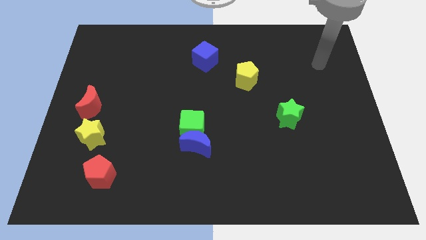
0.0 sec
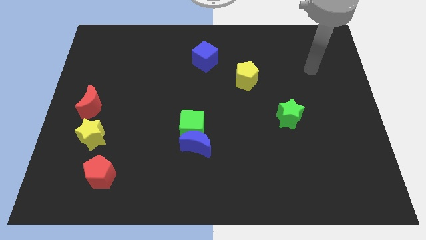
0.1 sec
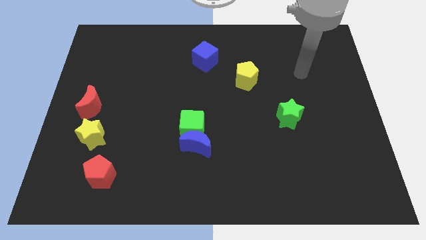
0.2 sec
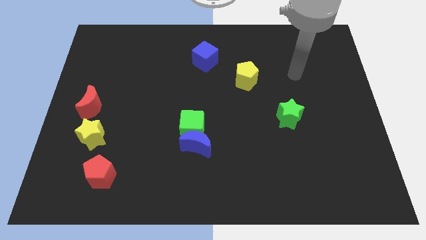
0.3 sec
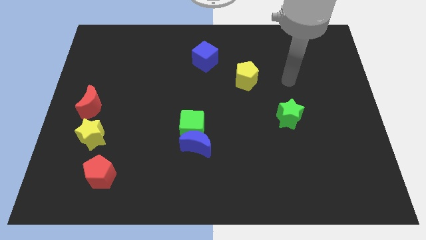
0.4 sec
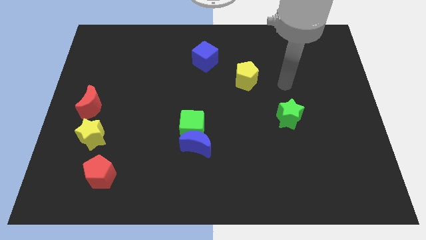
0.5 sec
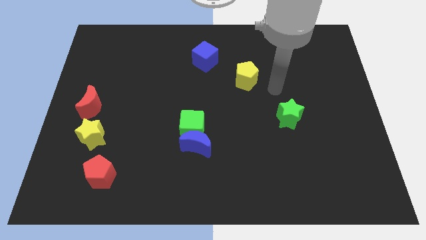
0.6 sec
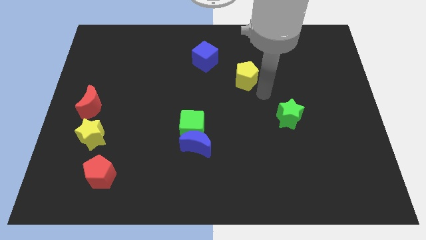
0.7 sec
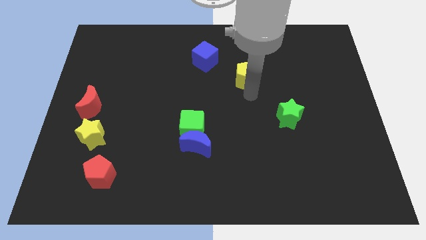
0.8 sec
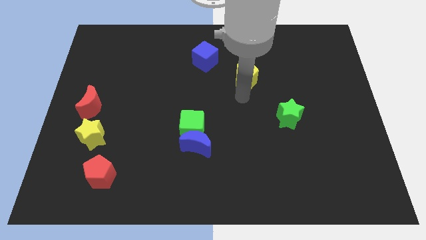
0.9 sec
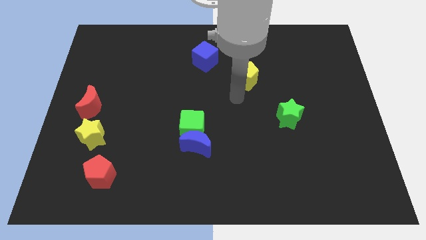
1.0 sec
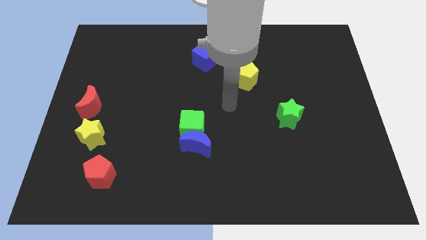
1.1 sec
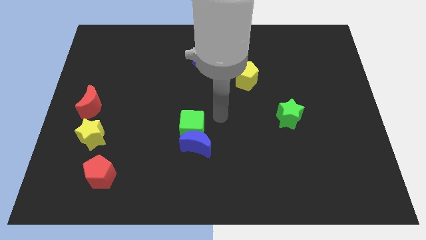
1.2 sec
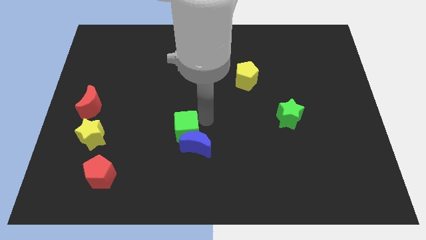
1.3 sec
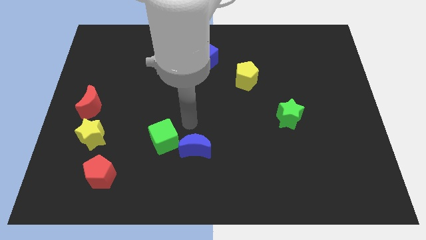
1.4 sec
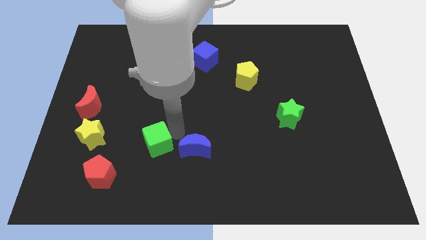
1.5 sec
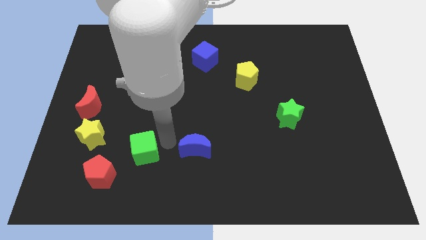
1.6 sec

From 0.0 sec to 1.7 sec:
move the blue moon away from the green cube

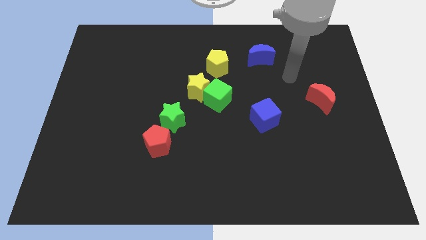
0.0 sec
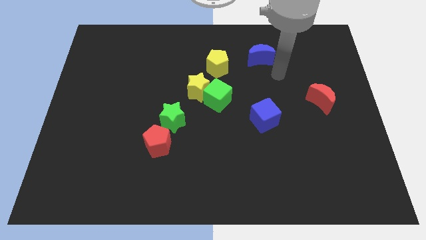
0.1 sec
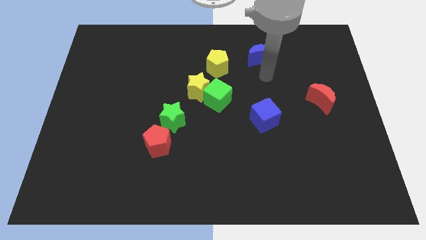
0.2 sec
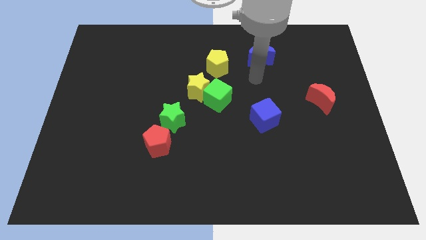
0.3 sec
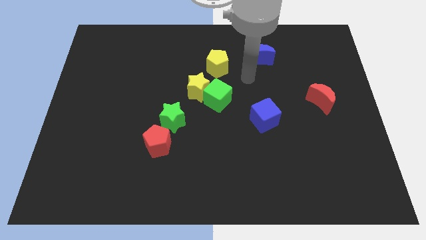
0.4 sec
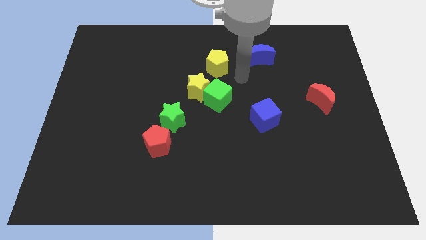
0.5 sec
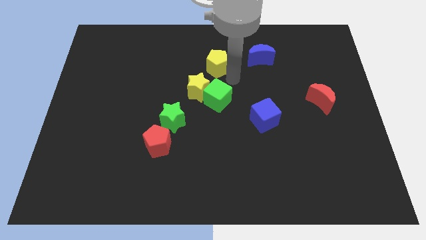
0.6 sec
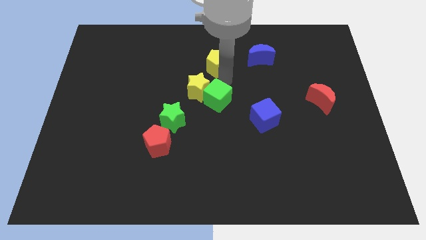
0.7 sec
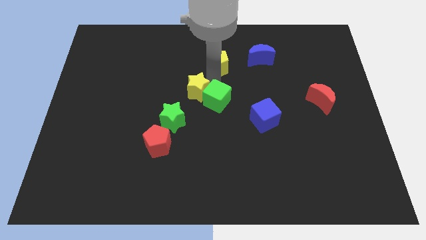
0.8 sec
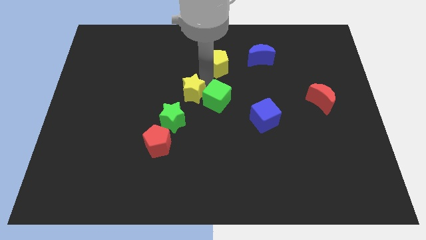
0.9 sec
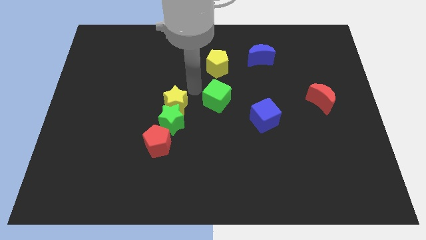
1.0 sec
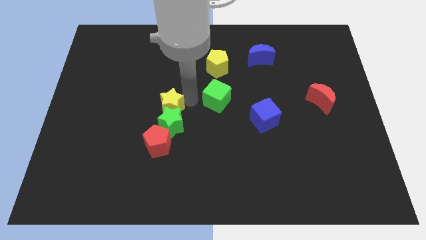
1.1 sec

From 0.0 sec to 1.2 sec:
pull the green cube apart from the yellow star

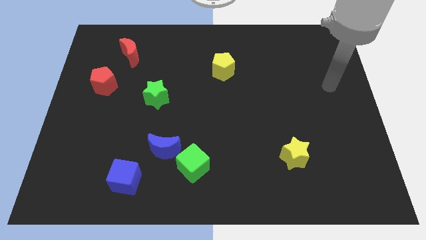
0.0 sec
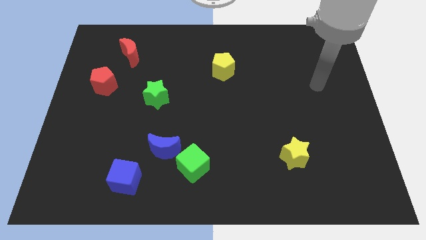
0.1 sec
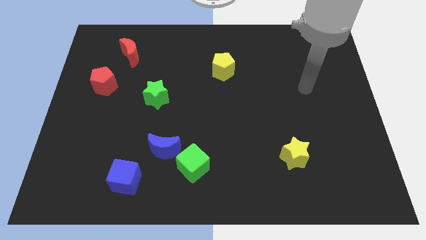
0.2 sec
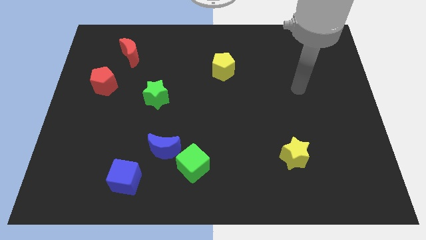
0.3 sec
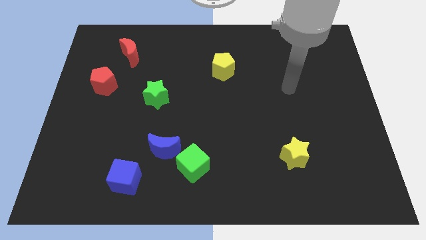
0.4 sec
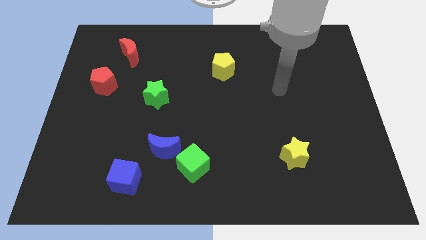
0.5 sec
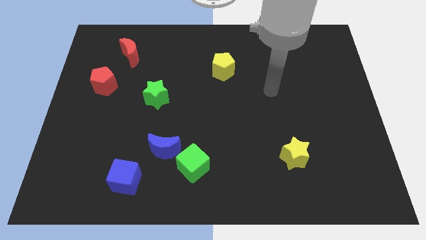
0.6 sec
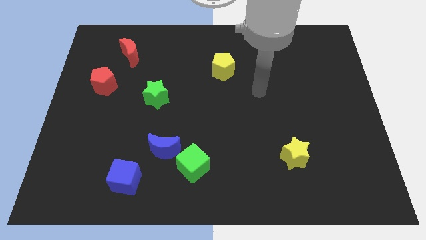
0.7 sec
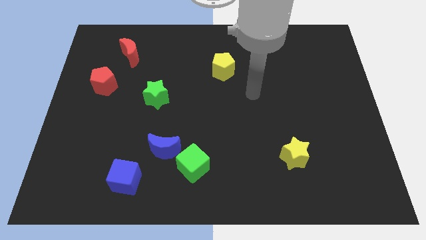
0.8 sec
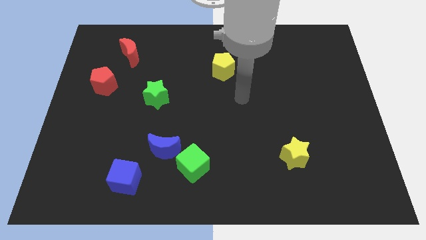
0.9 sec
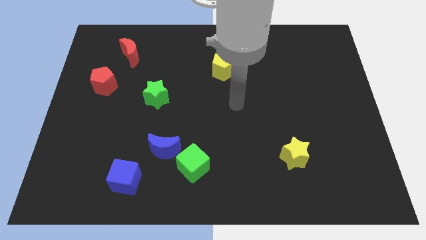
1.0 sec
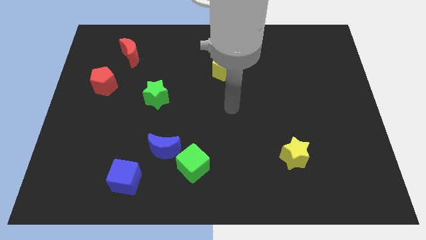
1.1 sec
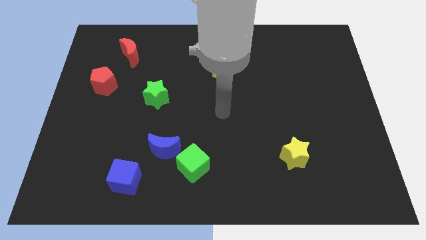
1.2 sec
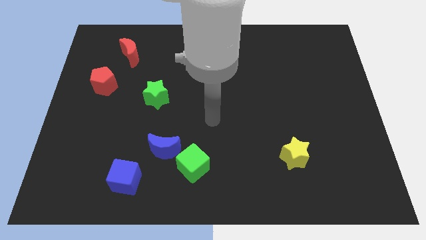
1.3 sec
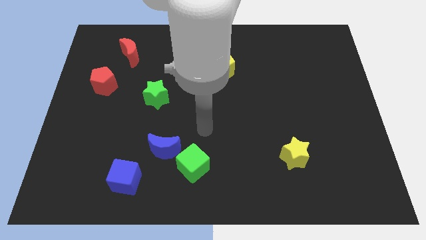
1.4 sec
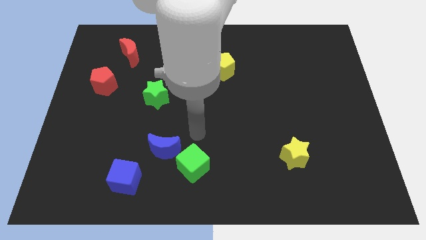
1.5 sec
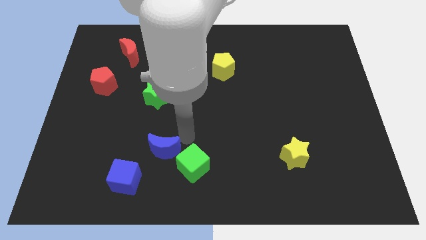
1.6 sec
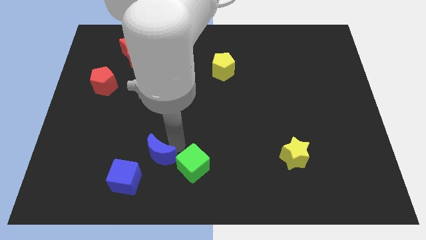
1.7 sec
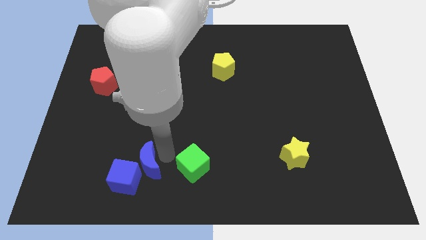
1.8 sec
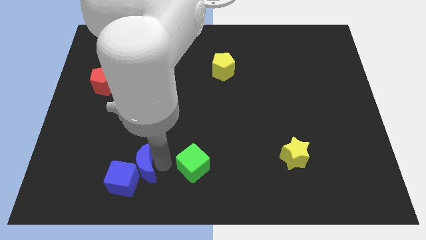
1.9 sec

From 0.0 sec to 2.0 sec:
move the green cube away from the blue moon

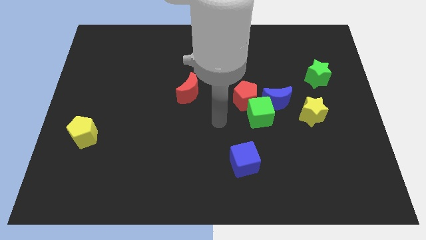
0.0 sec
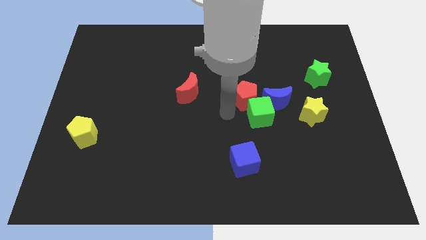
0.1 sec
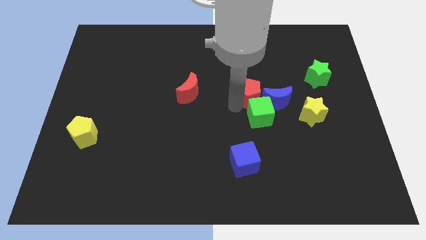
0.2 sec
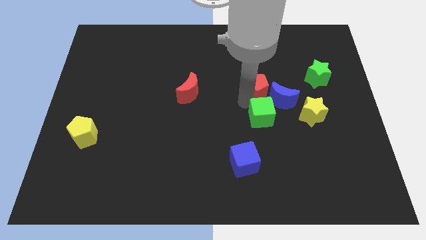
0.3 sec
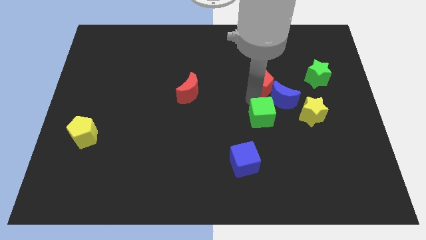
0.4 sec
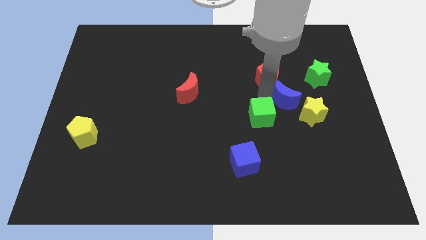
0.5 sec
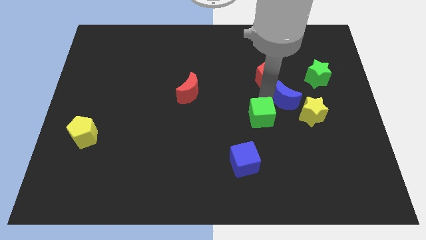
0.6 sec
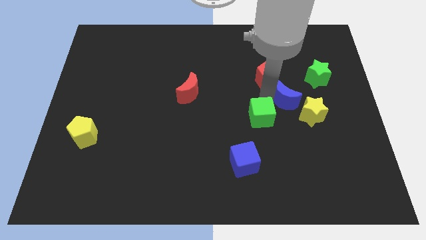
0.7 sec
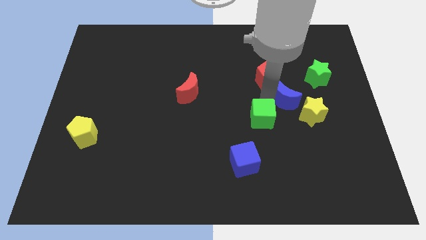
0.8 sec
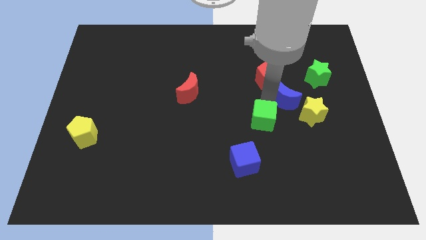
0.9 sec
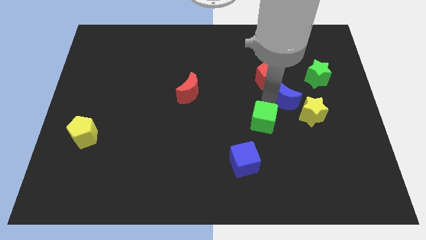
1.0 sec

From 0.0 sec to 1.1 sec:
pull the green cube apart from the blue moon and red pentagon

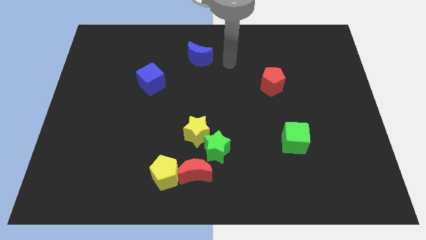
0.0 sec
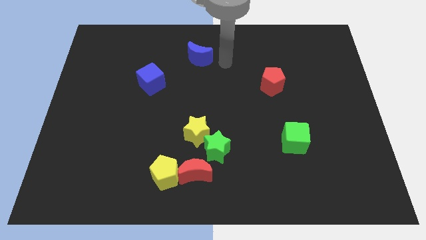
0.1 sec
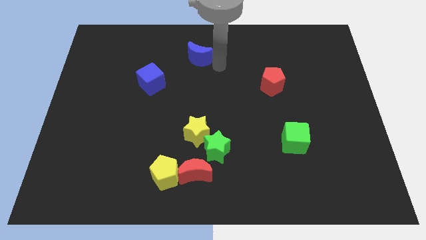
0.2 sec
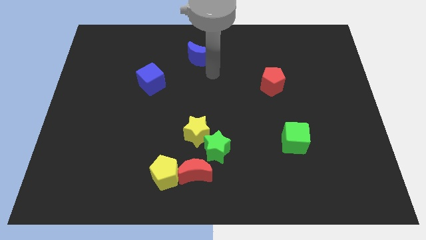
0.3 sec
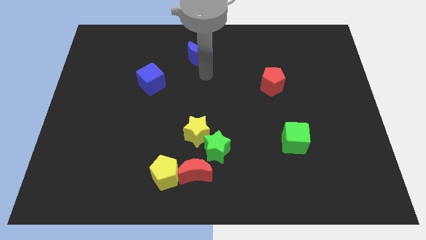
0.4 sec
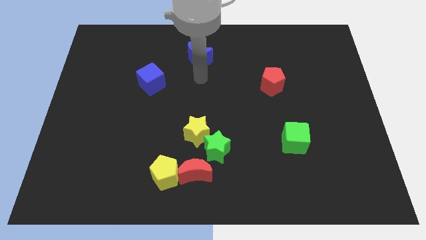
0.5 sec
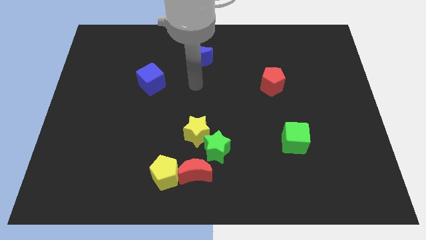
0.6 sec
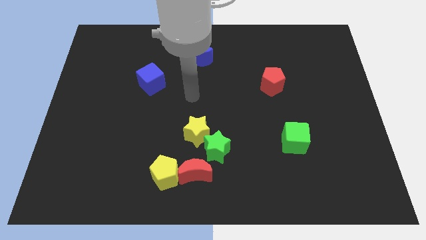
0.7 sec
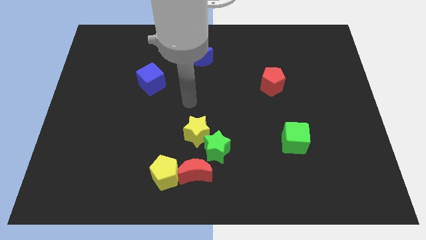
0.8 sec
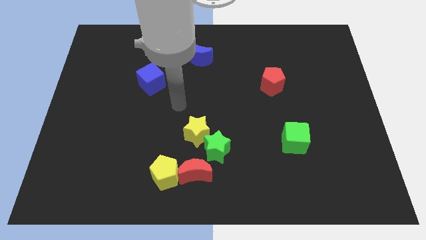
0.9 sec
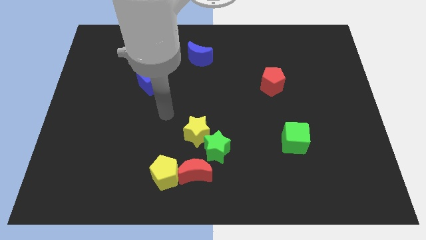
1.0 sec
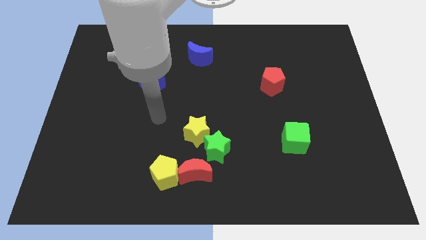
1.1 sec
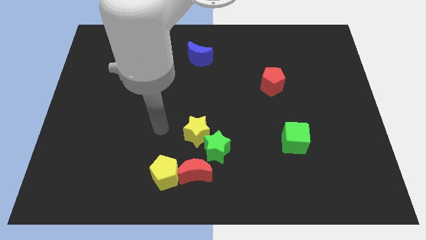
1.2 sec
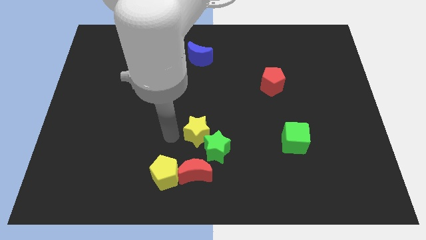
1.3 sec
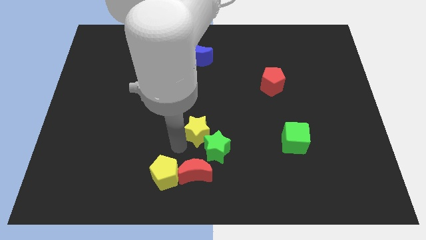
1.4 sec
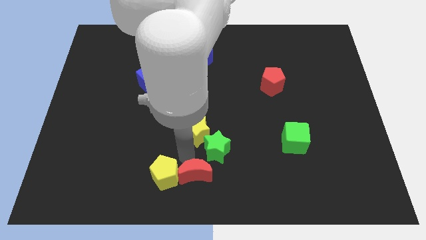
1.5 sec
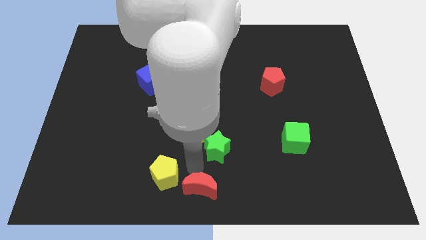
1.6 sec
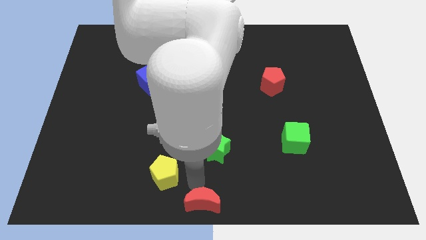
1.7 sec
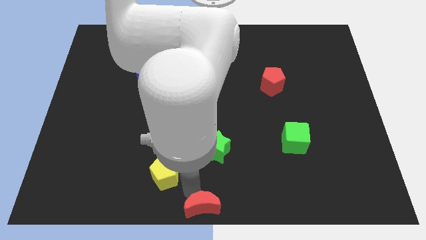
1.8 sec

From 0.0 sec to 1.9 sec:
move the yellow pentagon away from the red moon

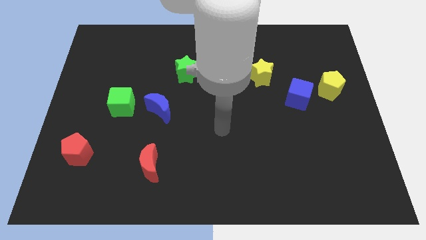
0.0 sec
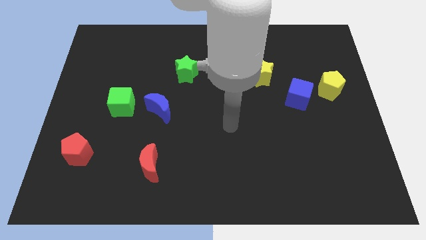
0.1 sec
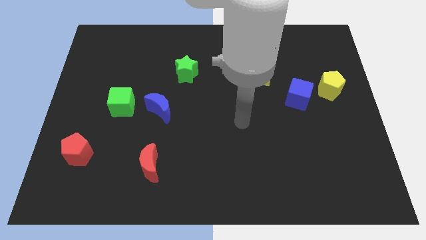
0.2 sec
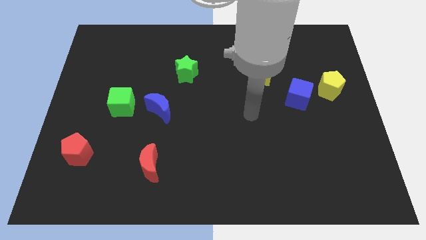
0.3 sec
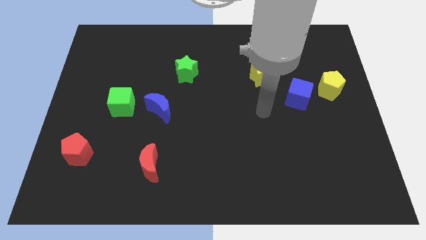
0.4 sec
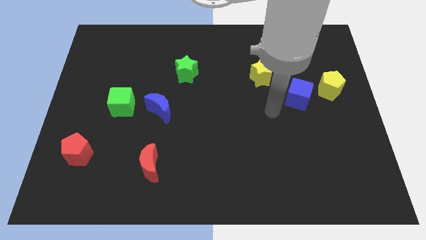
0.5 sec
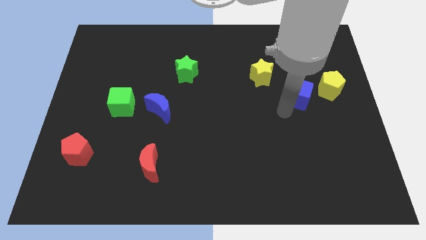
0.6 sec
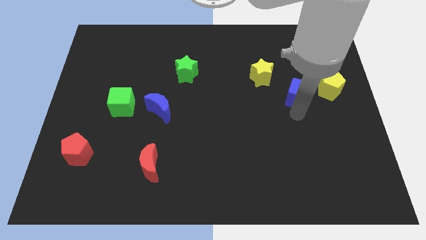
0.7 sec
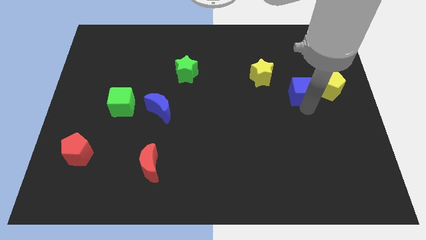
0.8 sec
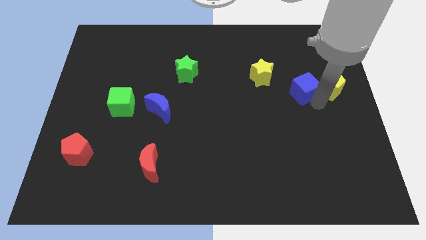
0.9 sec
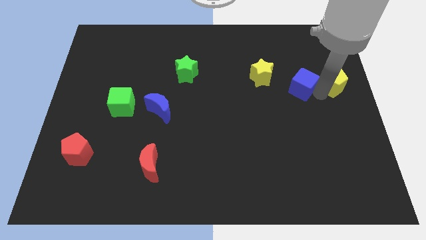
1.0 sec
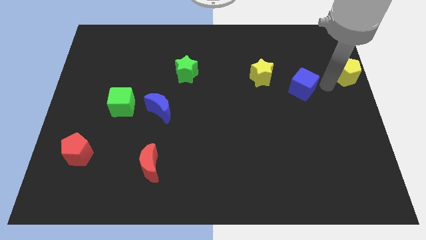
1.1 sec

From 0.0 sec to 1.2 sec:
pull the blue cube apart from the yellow pentagon
